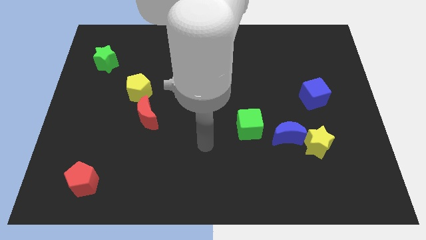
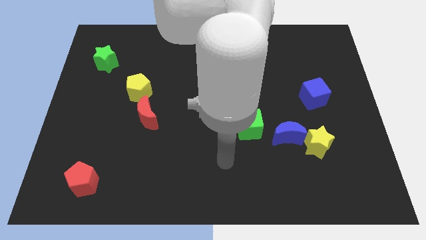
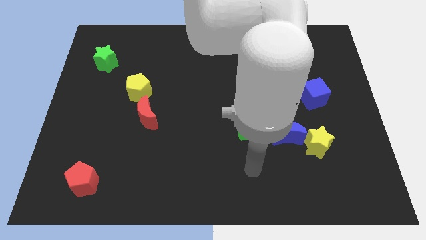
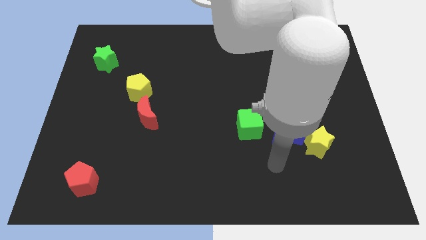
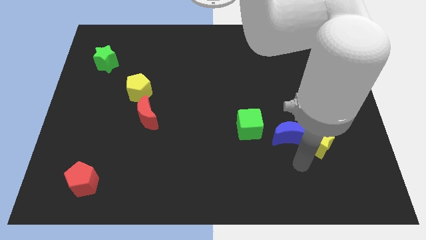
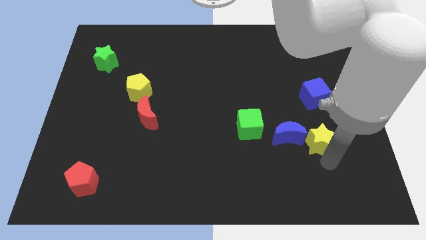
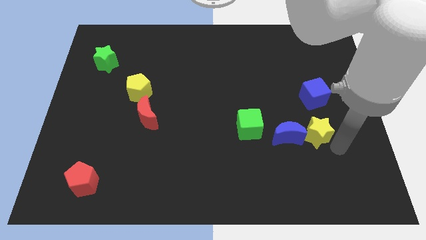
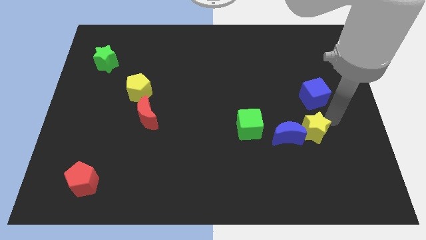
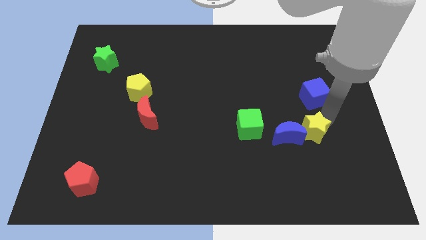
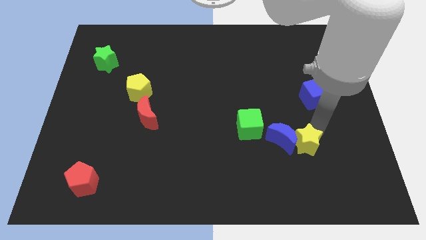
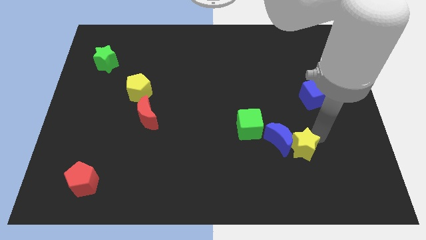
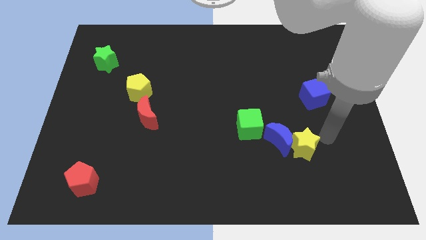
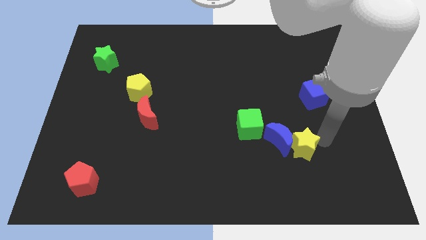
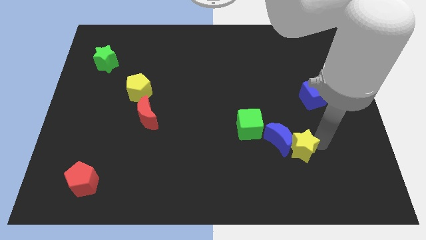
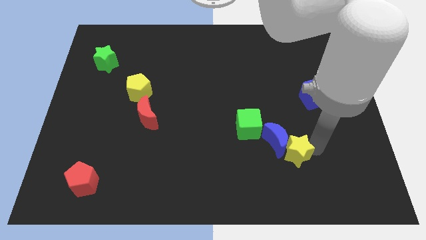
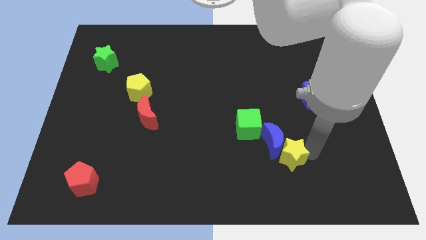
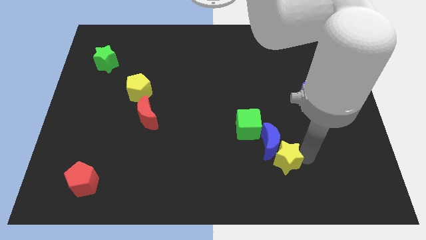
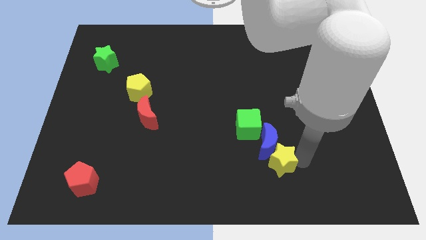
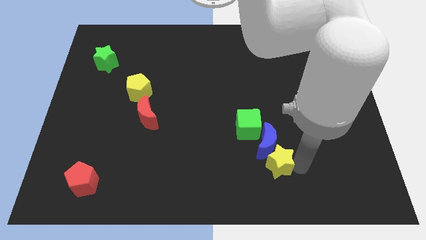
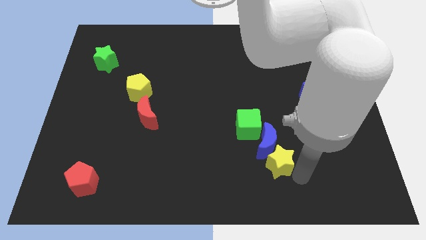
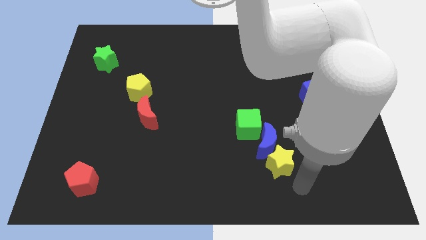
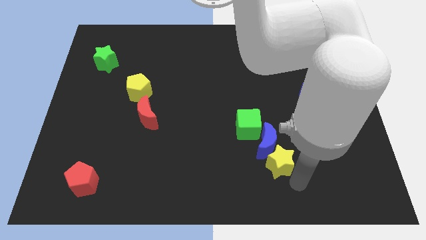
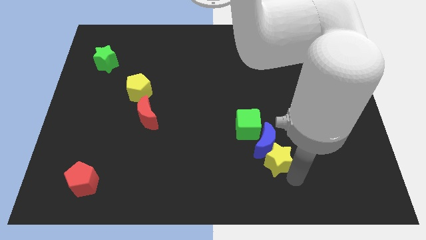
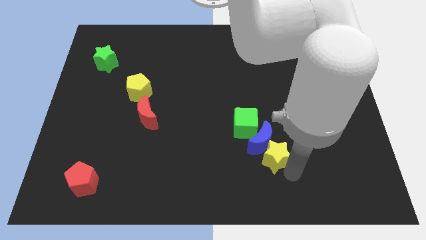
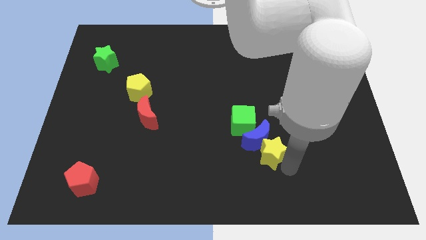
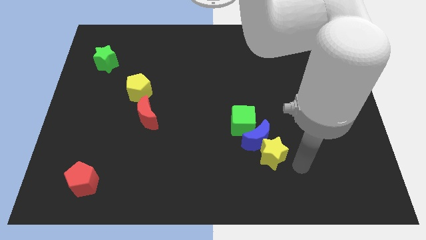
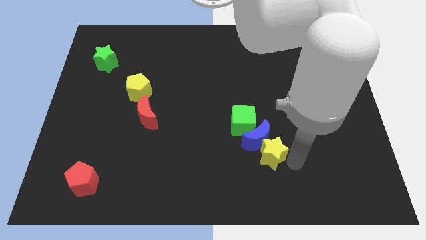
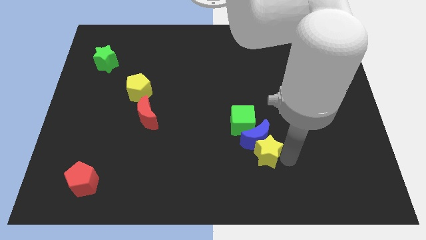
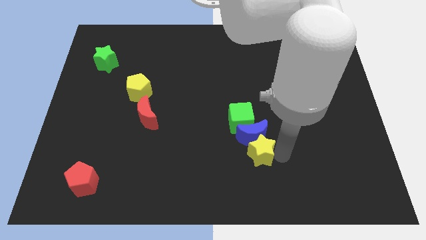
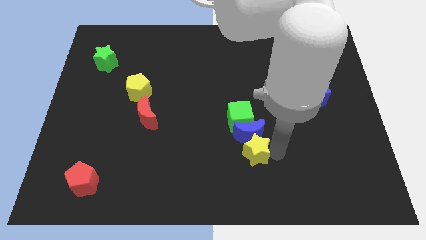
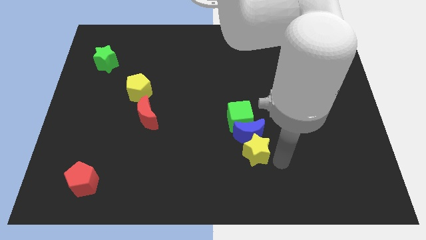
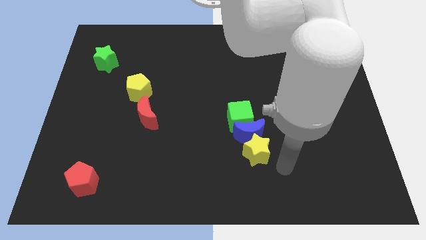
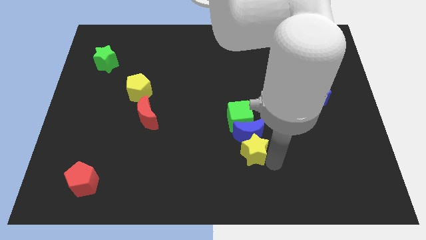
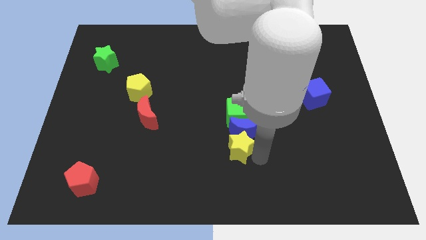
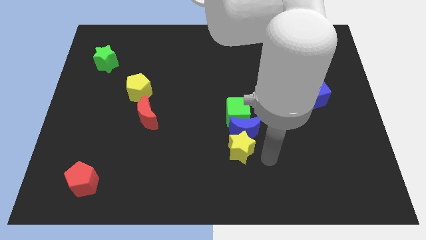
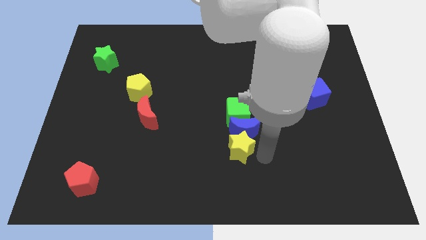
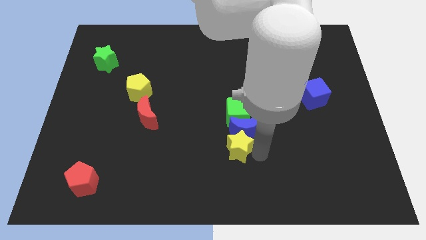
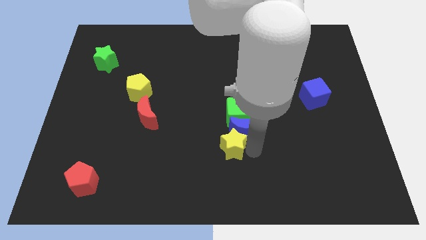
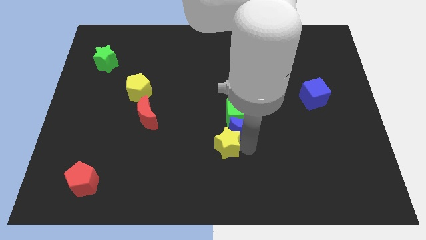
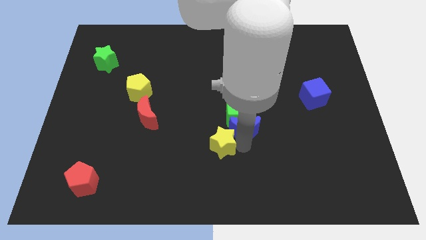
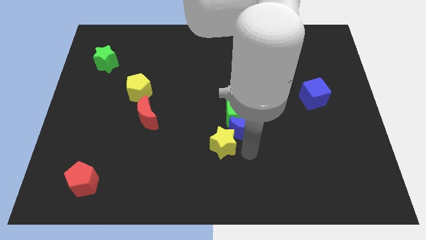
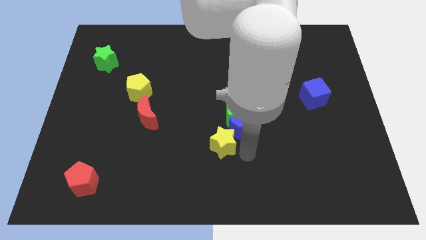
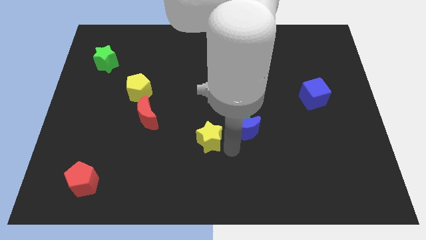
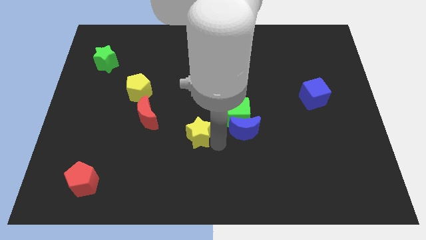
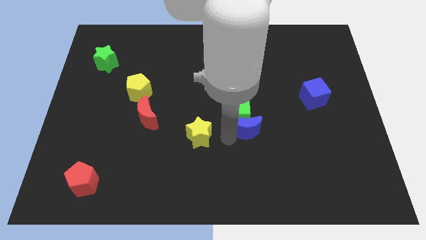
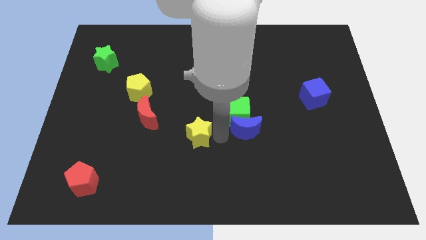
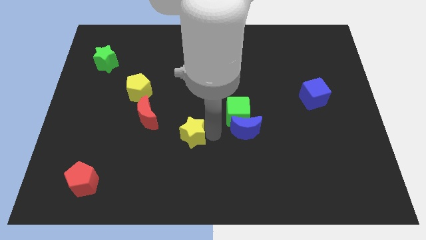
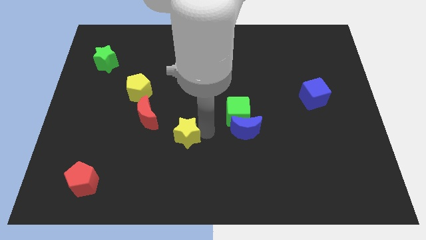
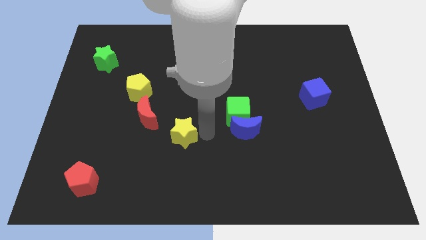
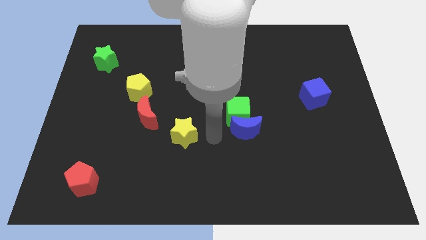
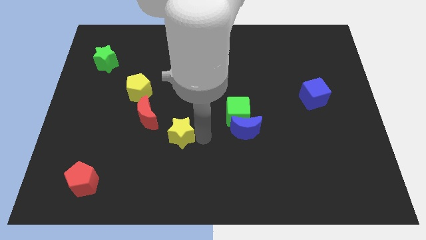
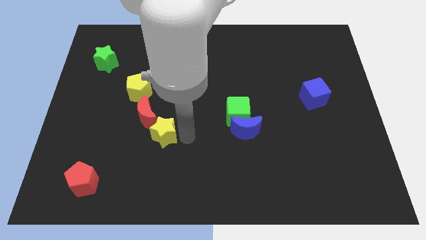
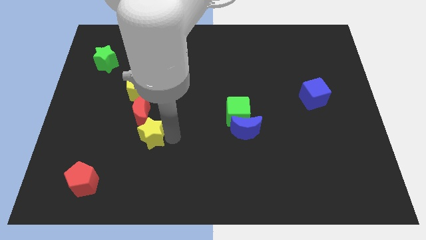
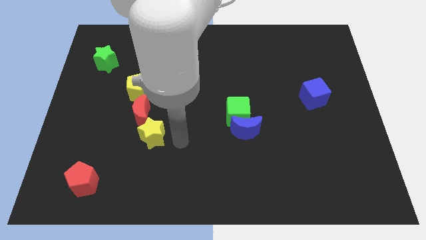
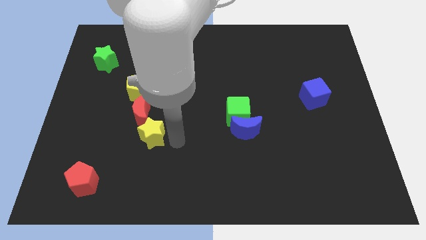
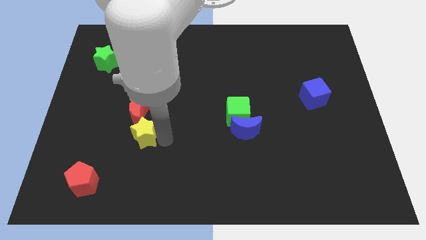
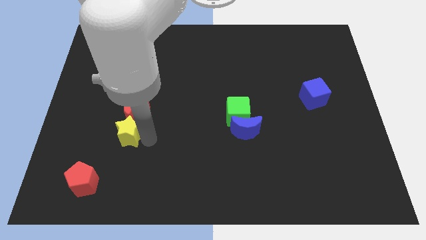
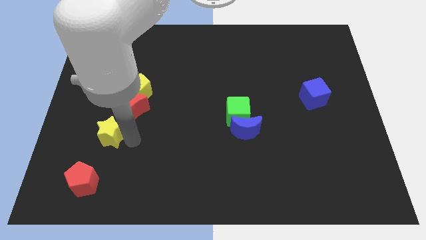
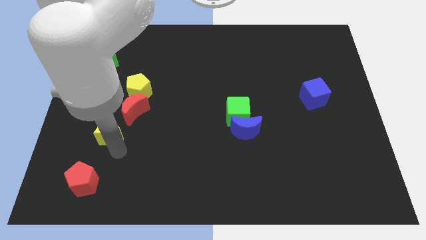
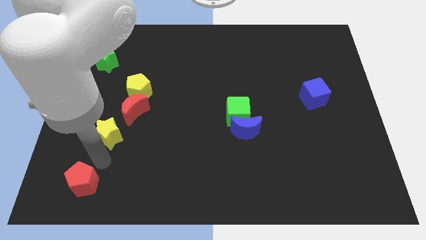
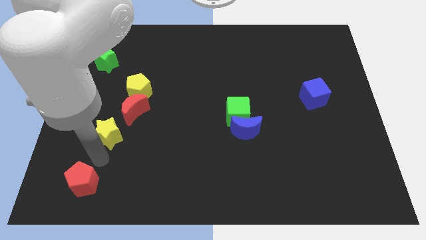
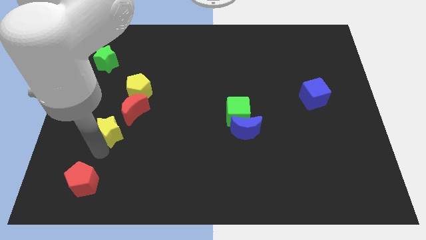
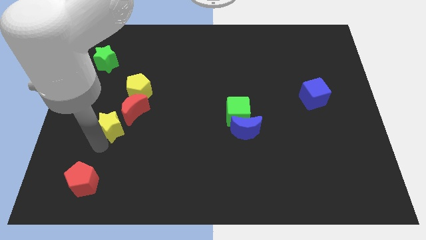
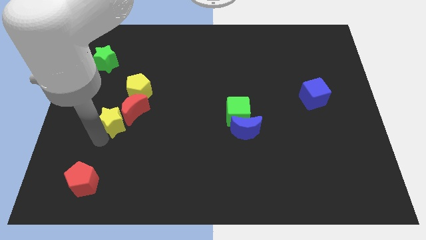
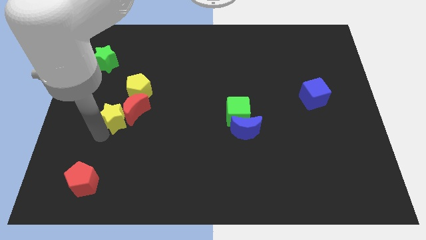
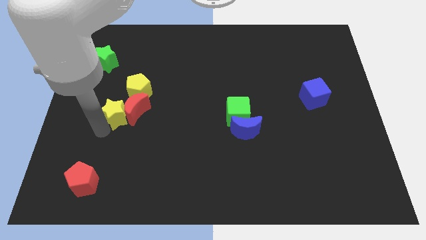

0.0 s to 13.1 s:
slide the yellow star diagonally up and to the left of the red moon

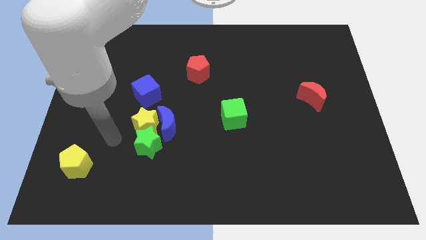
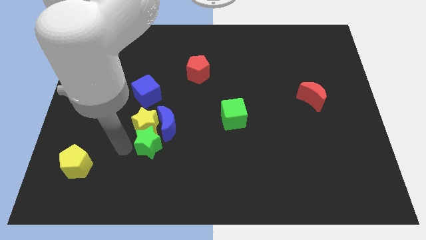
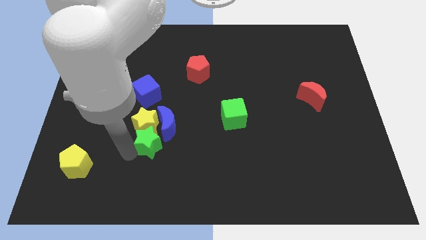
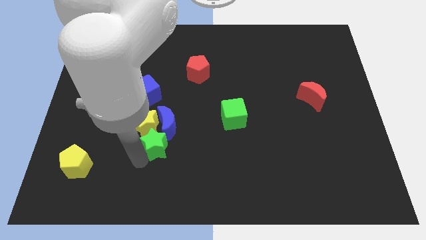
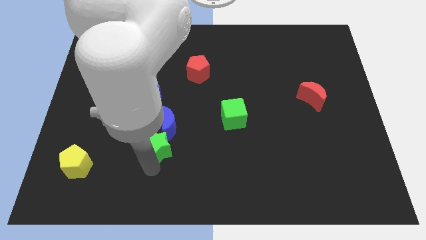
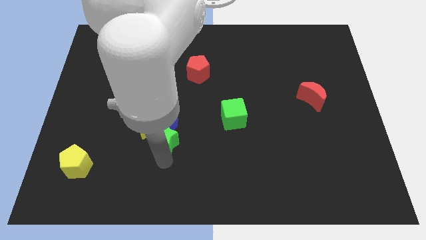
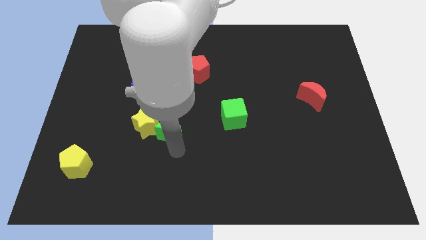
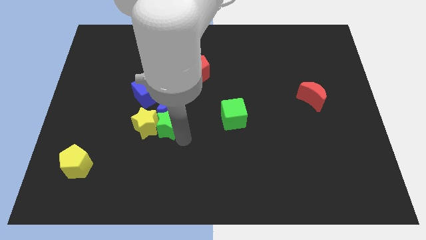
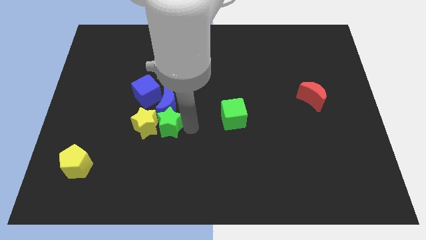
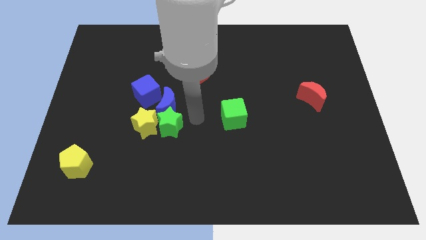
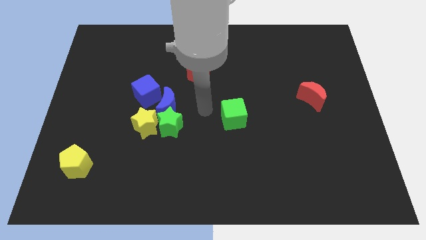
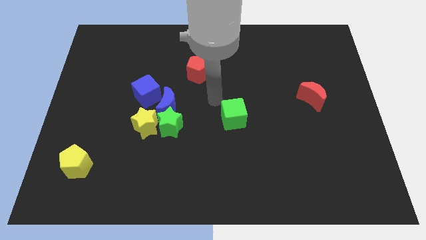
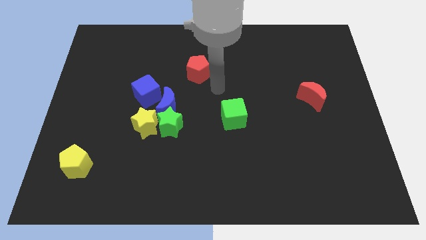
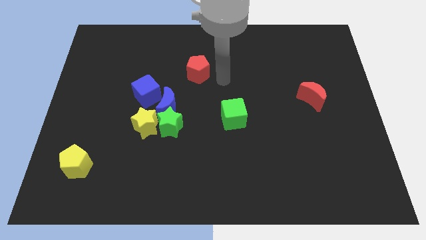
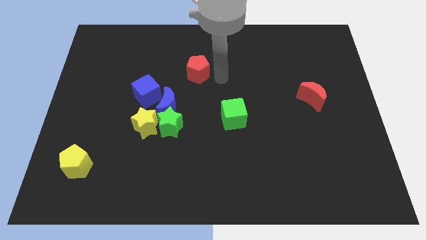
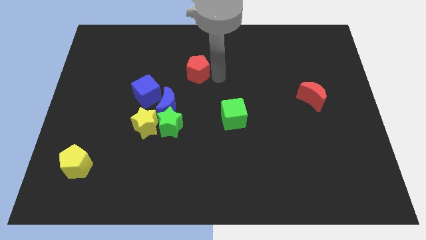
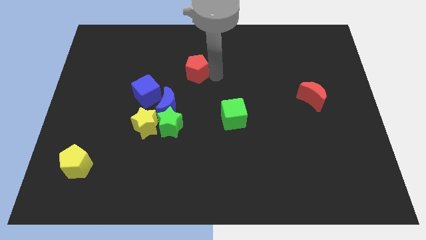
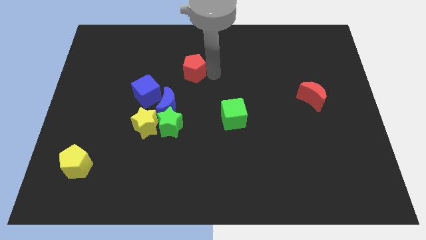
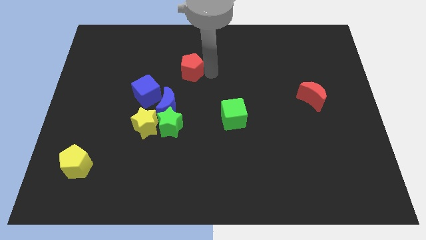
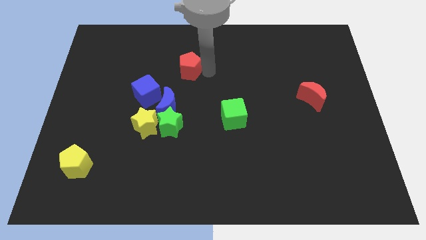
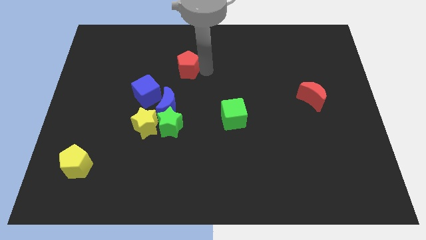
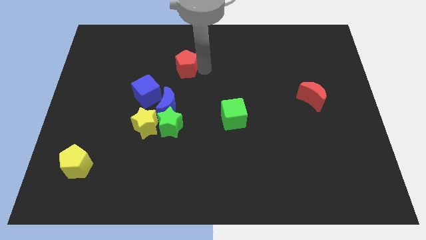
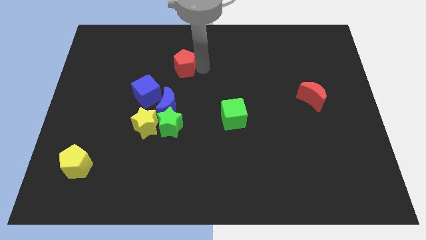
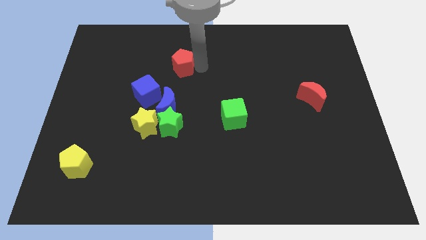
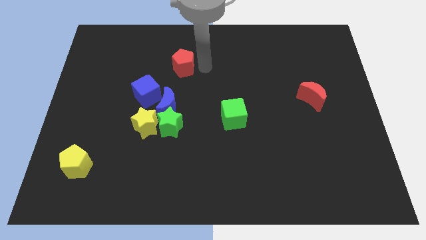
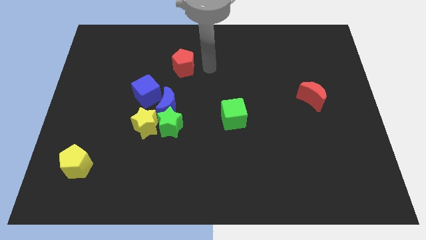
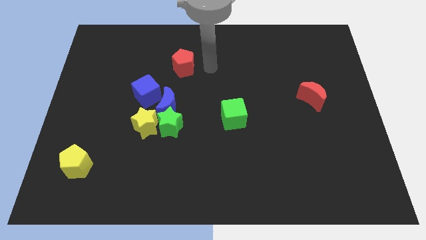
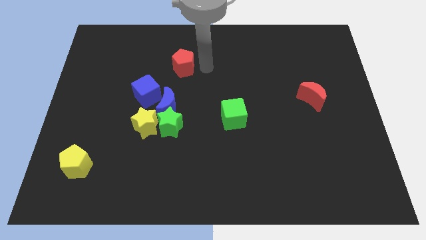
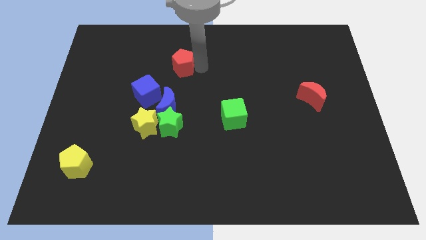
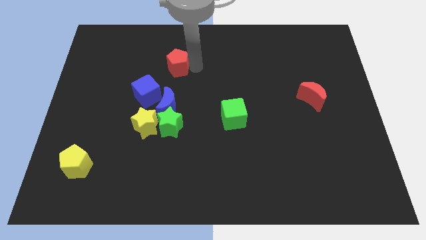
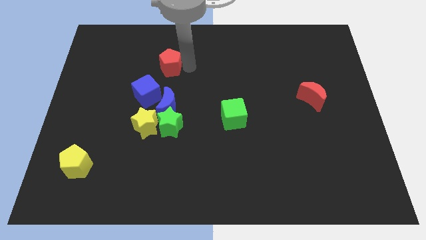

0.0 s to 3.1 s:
put the red pentagon above the blue cube
